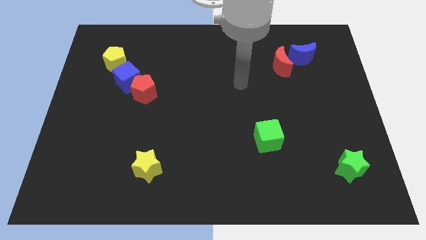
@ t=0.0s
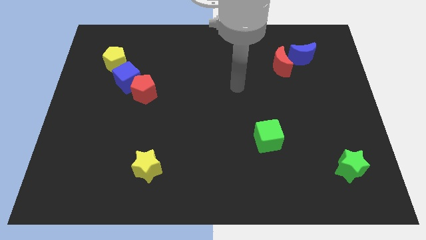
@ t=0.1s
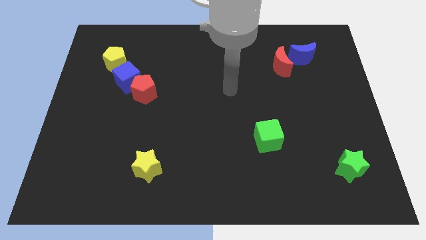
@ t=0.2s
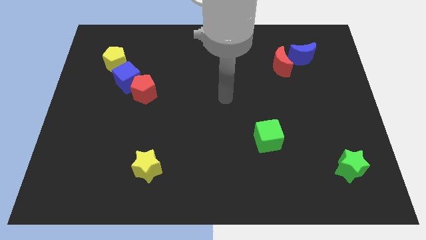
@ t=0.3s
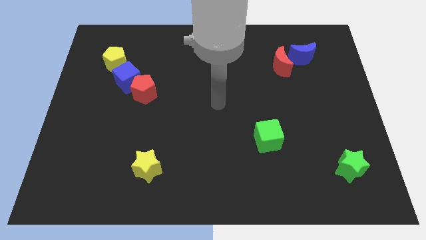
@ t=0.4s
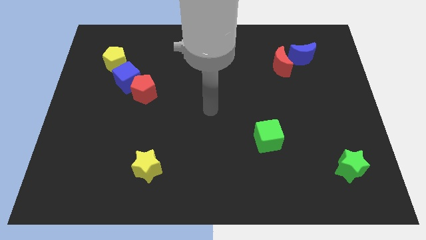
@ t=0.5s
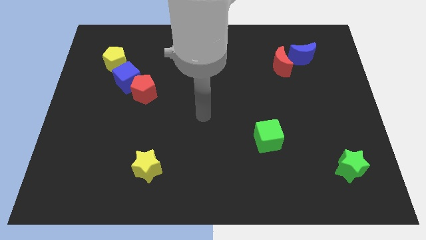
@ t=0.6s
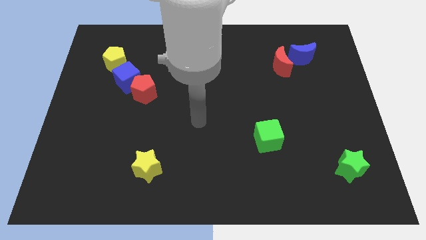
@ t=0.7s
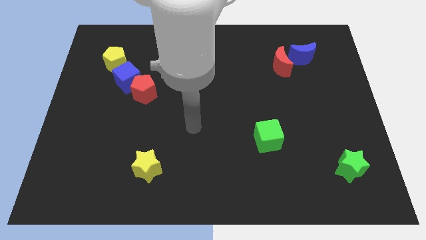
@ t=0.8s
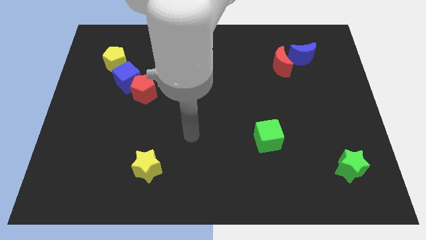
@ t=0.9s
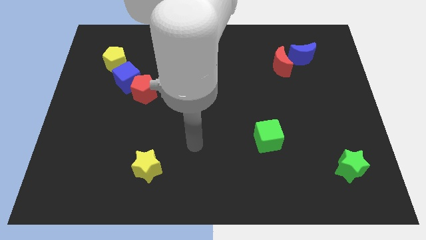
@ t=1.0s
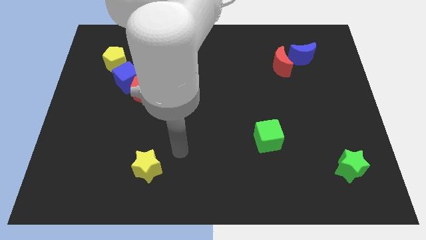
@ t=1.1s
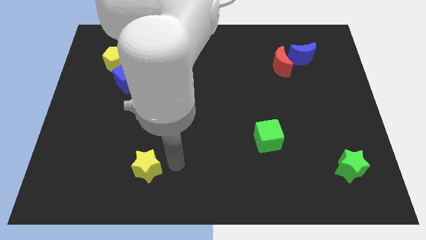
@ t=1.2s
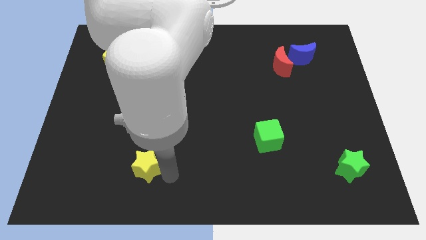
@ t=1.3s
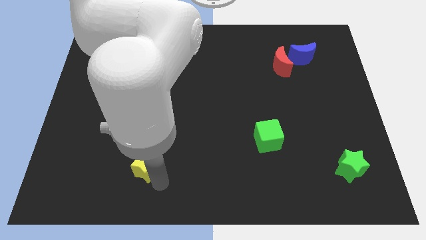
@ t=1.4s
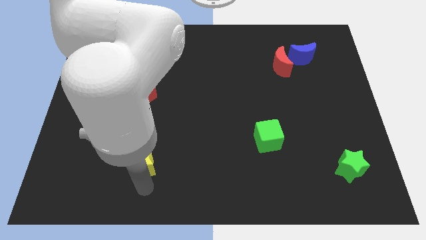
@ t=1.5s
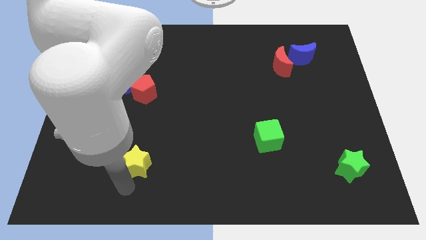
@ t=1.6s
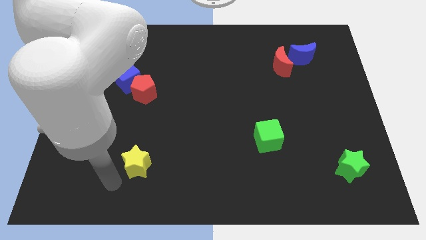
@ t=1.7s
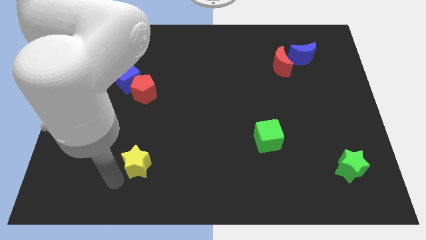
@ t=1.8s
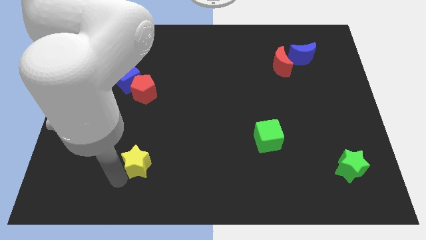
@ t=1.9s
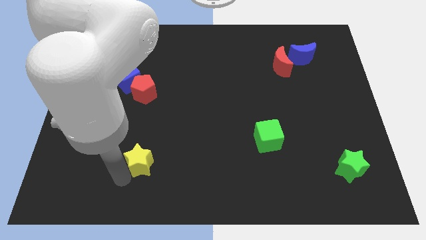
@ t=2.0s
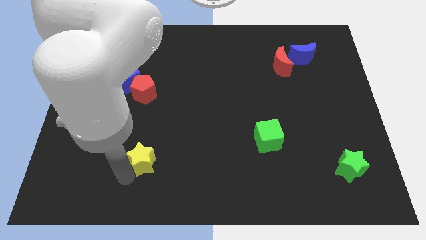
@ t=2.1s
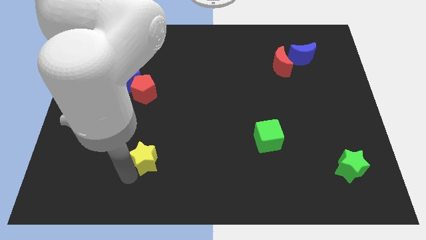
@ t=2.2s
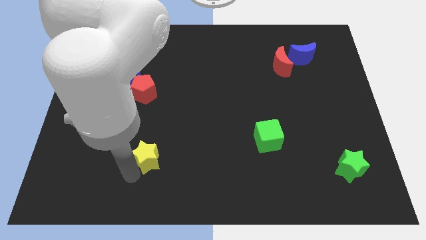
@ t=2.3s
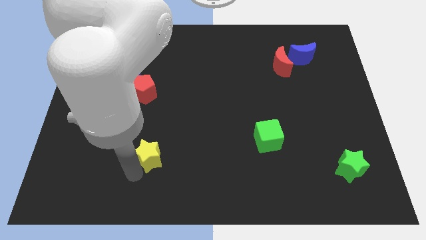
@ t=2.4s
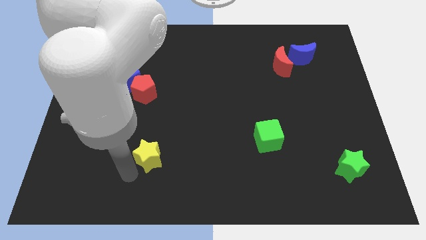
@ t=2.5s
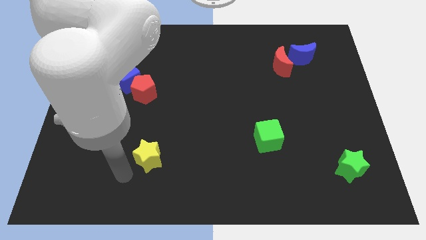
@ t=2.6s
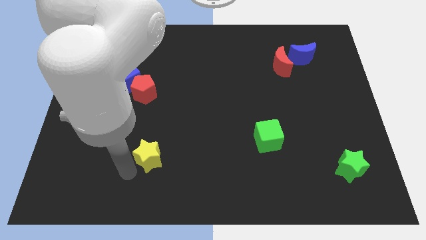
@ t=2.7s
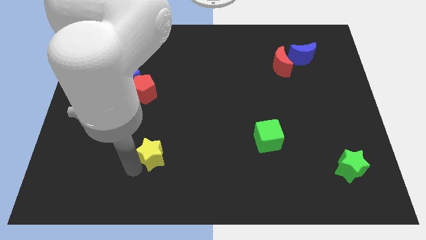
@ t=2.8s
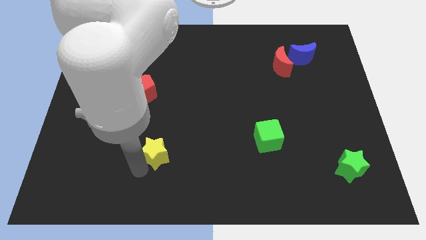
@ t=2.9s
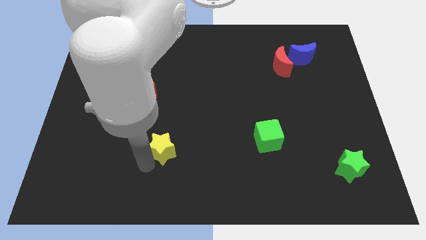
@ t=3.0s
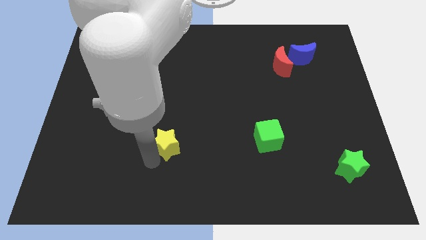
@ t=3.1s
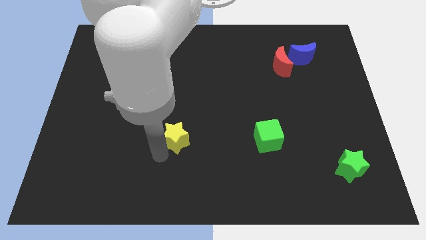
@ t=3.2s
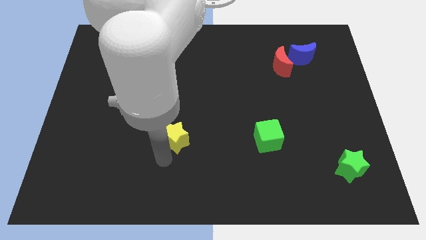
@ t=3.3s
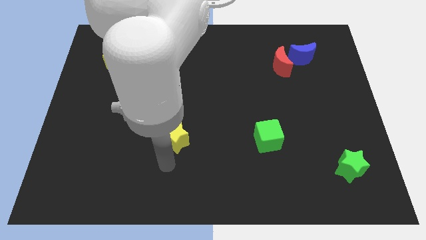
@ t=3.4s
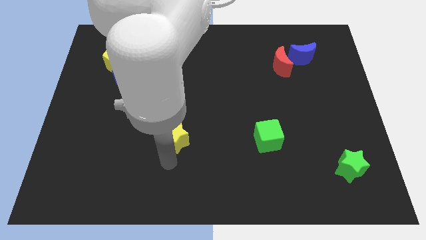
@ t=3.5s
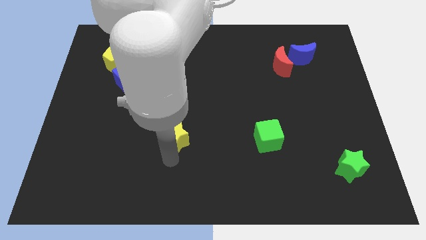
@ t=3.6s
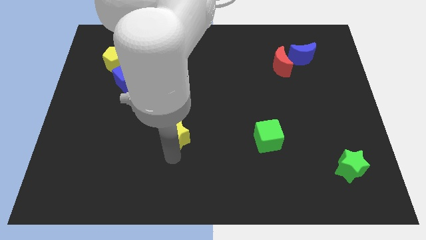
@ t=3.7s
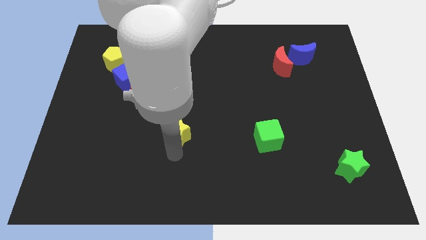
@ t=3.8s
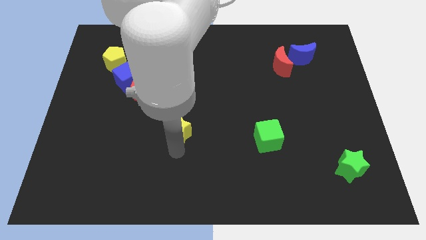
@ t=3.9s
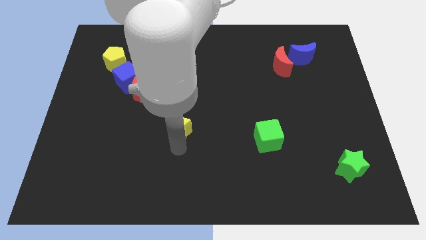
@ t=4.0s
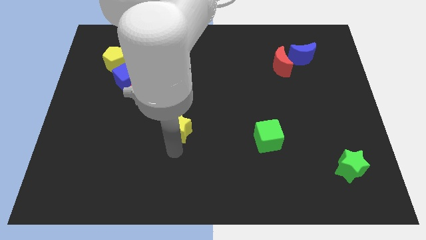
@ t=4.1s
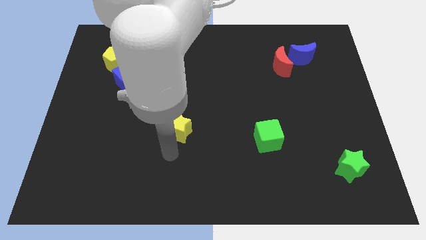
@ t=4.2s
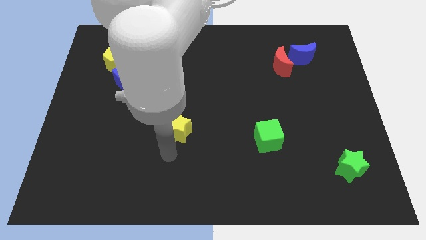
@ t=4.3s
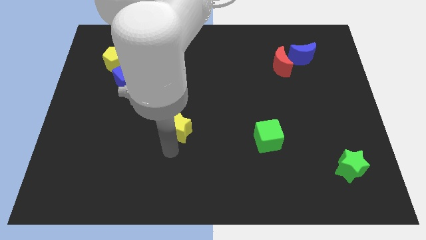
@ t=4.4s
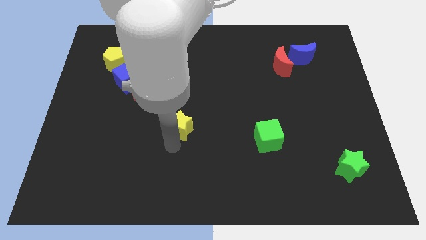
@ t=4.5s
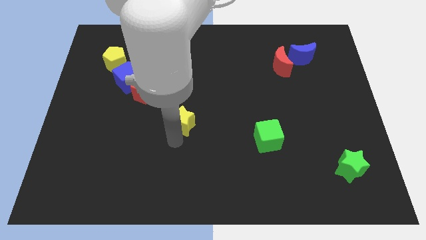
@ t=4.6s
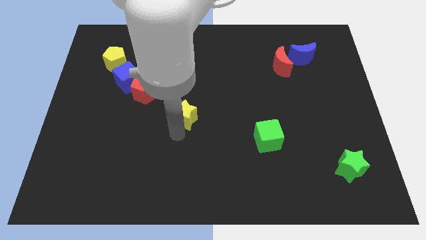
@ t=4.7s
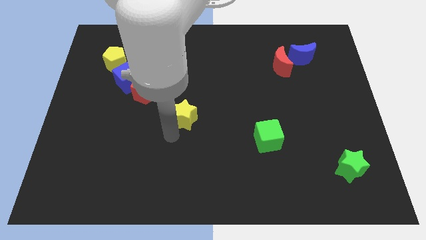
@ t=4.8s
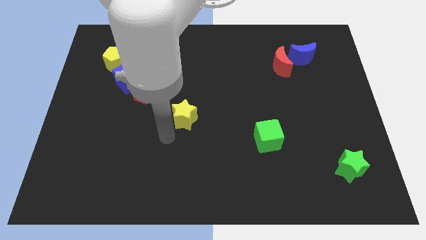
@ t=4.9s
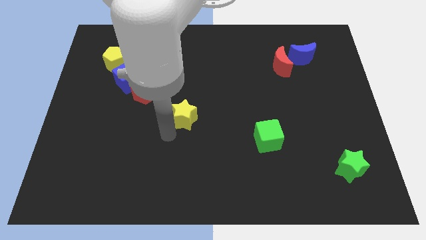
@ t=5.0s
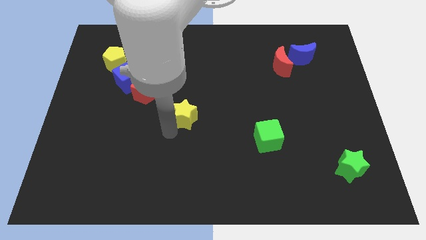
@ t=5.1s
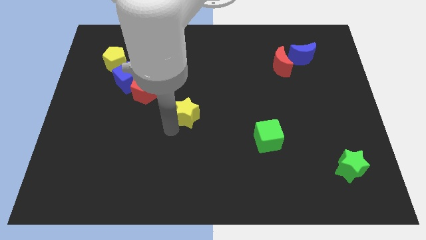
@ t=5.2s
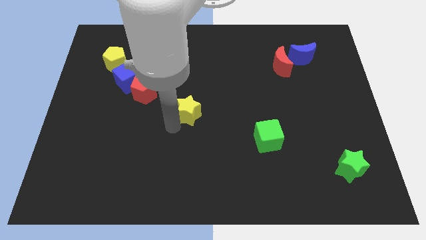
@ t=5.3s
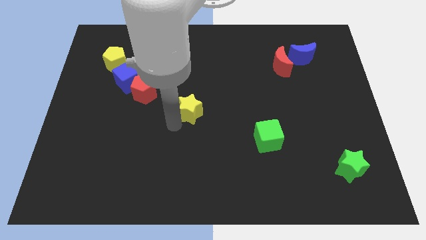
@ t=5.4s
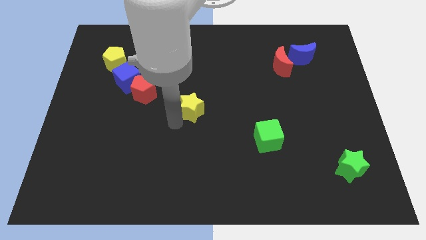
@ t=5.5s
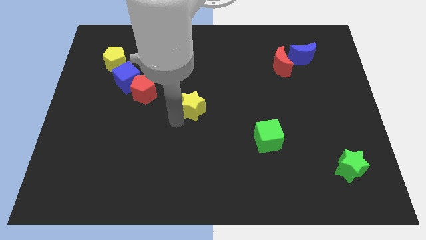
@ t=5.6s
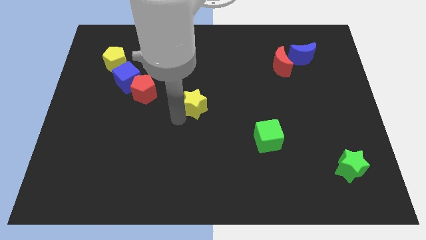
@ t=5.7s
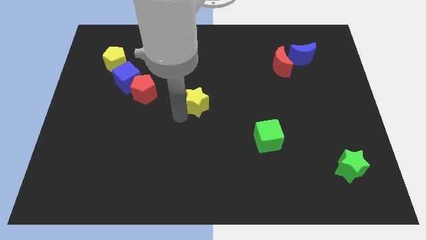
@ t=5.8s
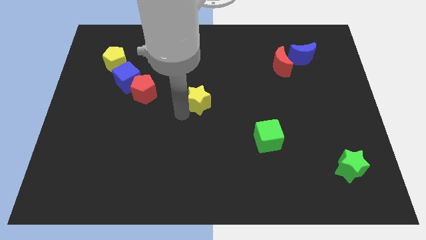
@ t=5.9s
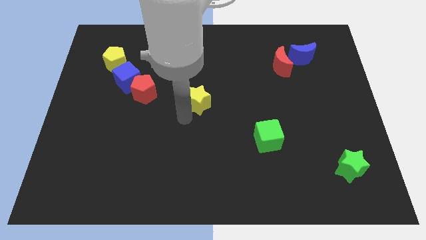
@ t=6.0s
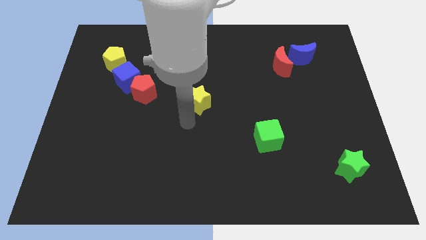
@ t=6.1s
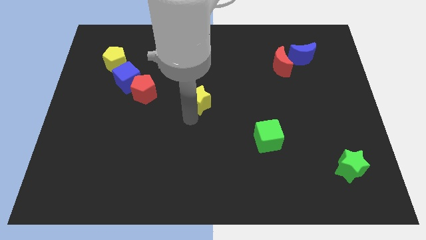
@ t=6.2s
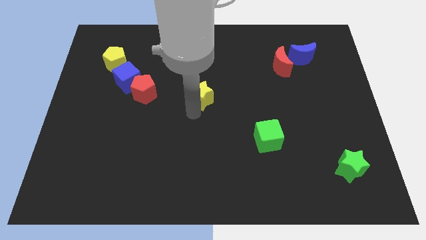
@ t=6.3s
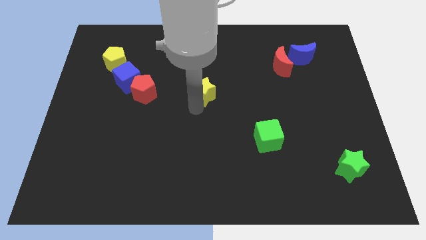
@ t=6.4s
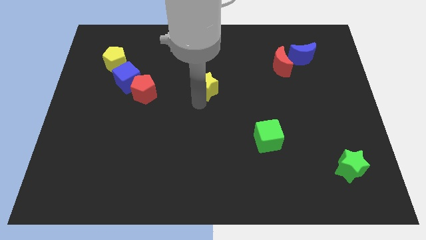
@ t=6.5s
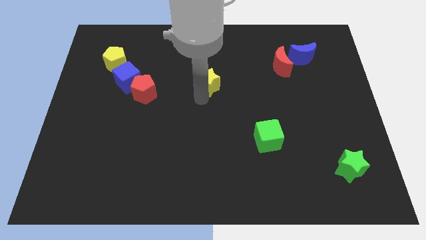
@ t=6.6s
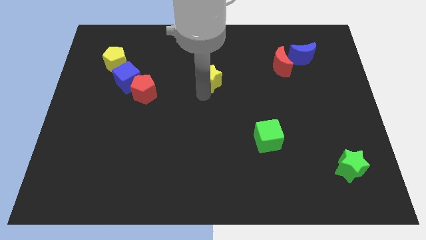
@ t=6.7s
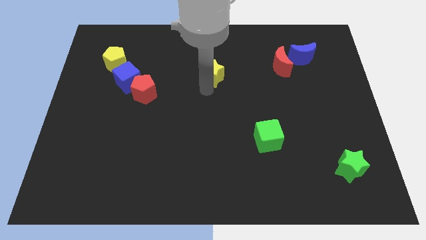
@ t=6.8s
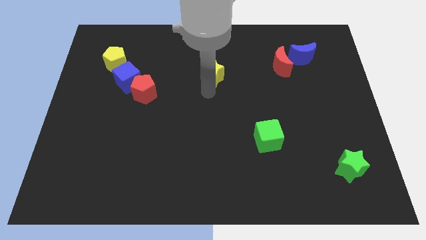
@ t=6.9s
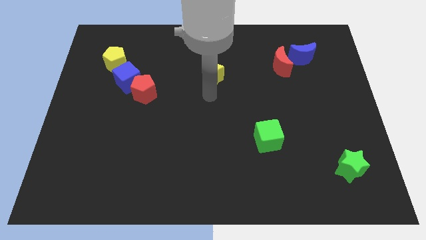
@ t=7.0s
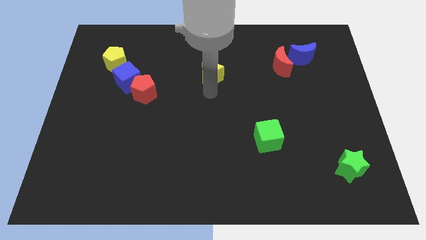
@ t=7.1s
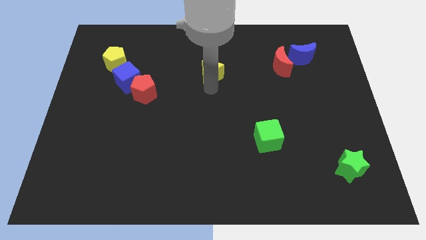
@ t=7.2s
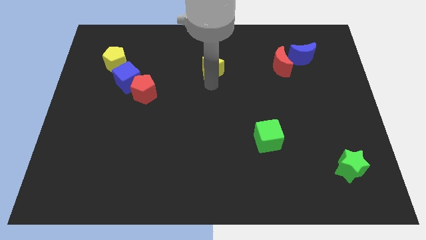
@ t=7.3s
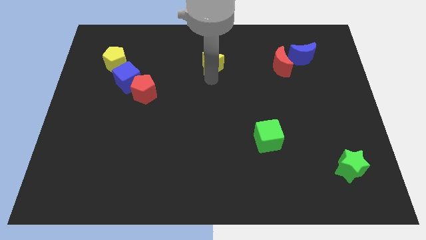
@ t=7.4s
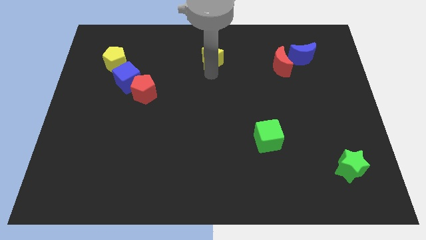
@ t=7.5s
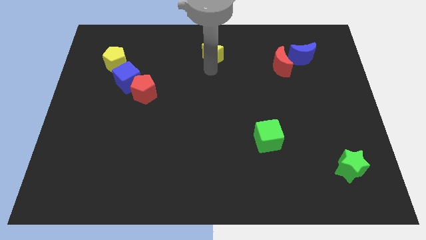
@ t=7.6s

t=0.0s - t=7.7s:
push the yellow star to the top
